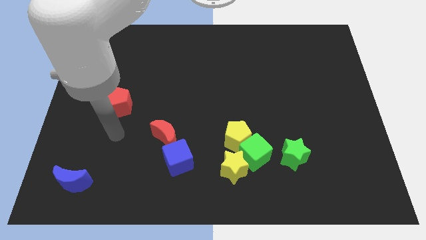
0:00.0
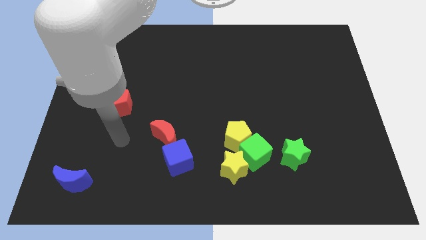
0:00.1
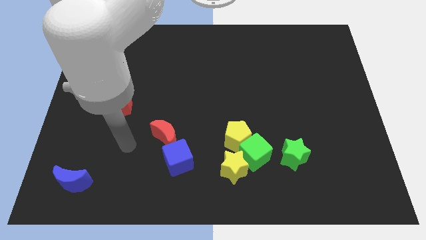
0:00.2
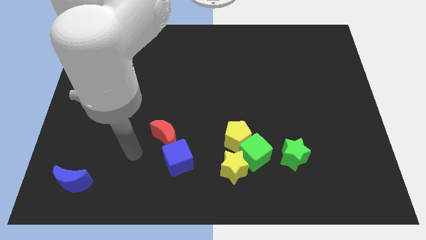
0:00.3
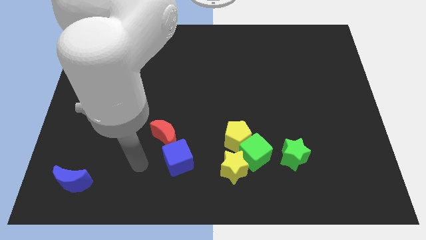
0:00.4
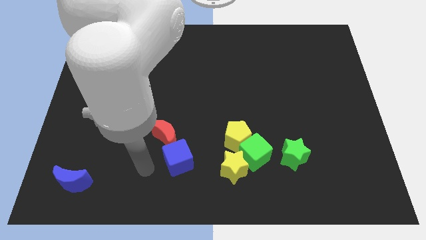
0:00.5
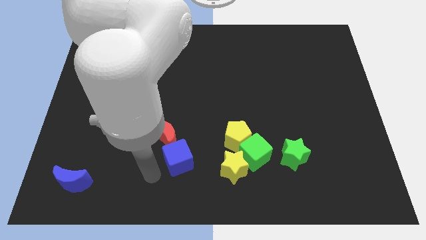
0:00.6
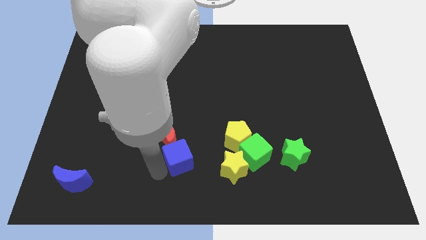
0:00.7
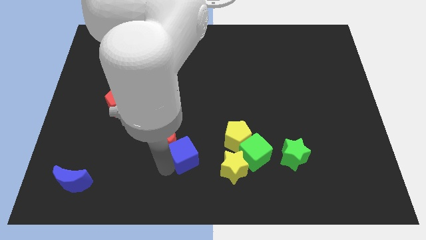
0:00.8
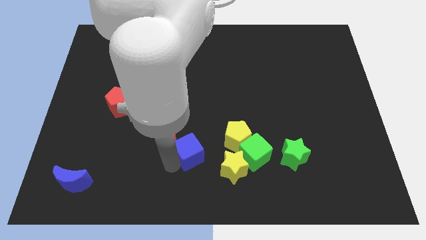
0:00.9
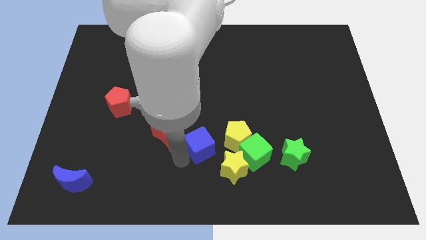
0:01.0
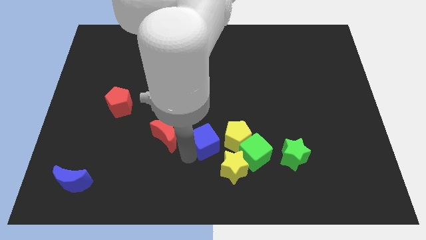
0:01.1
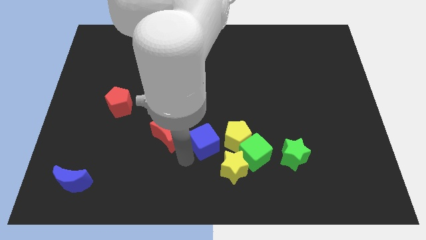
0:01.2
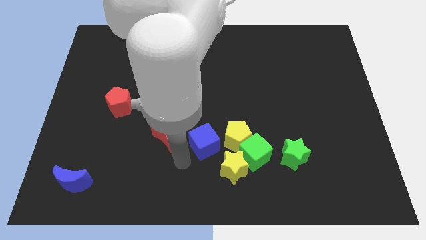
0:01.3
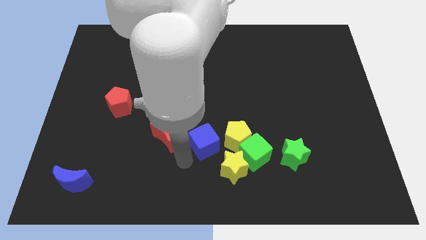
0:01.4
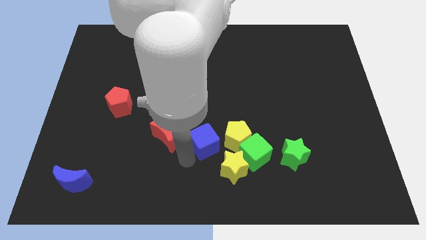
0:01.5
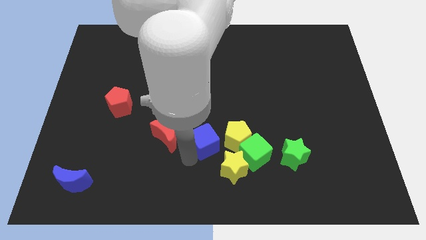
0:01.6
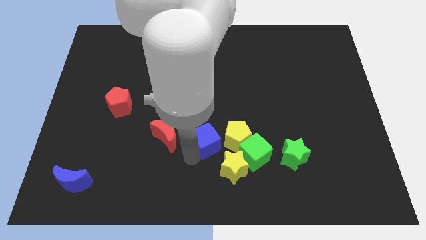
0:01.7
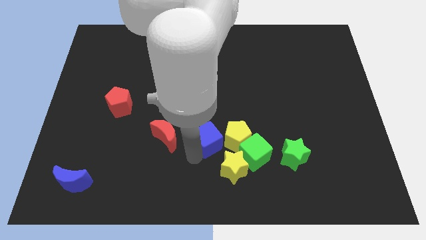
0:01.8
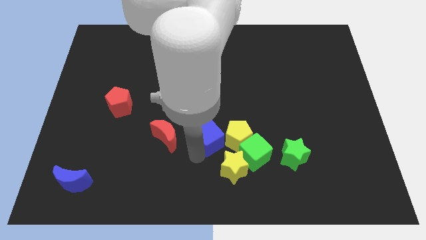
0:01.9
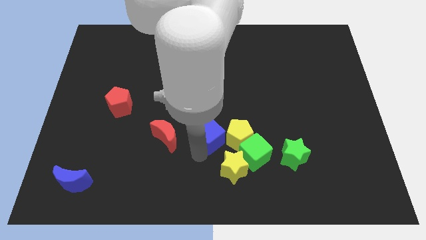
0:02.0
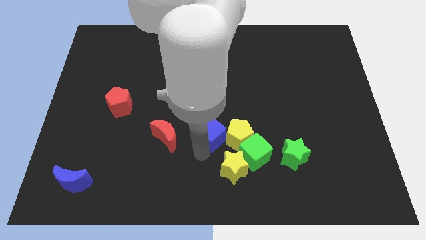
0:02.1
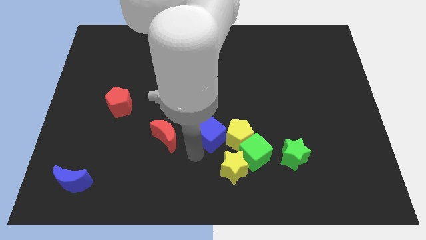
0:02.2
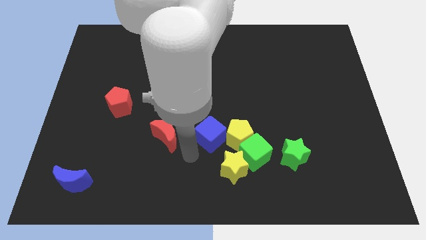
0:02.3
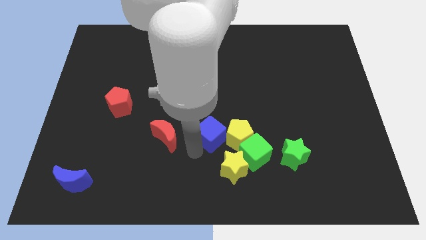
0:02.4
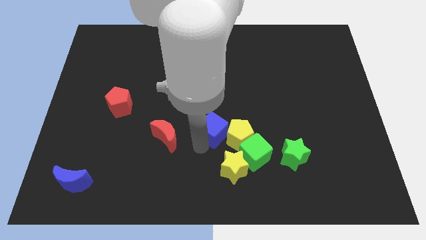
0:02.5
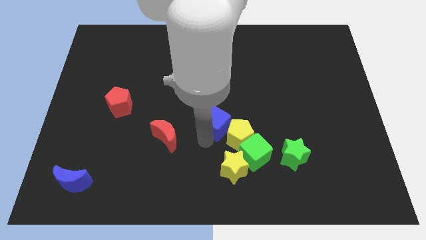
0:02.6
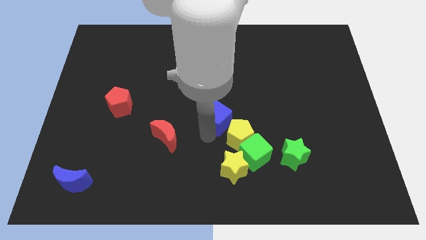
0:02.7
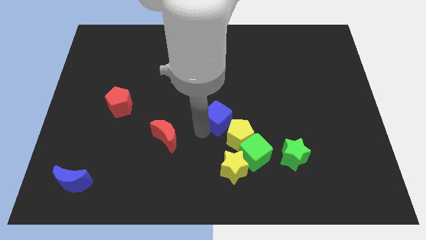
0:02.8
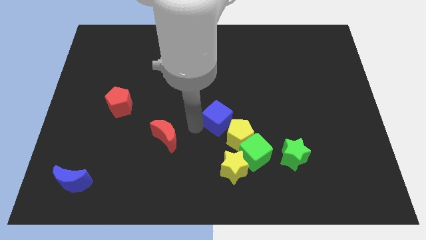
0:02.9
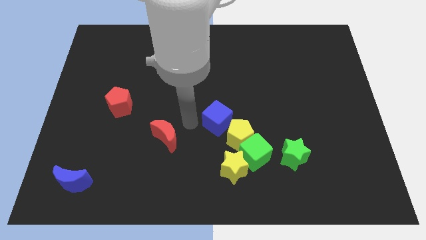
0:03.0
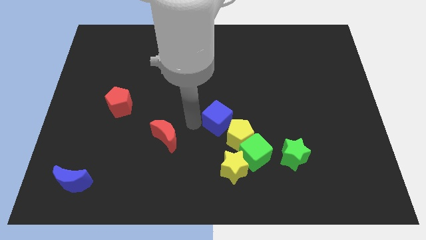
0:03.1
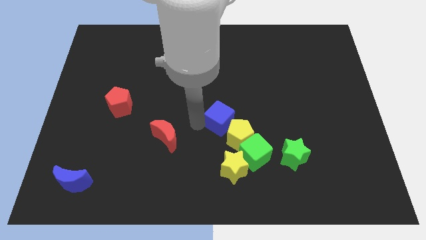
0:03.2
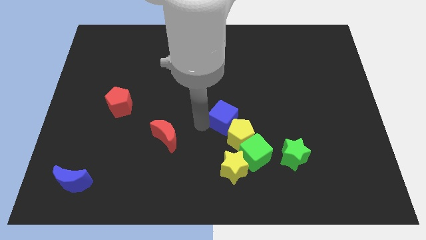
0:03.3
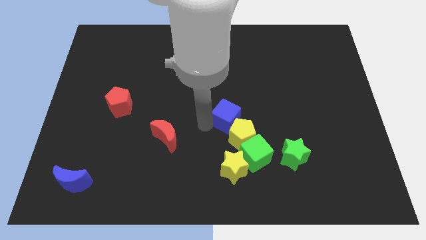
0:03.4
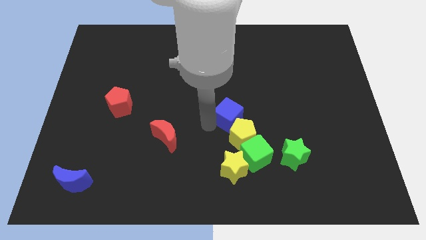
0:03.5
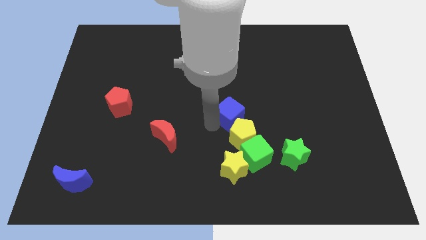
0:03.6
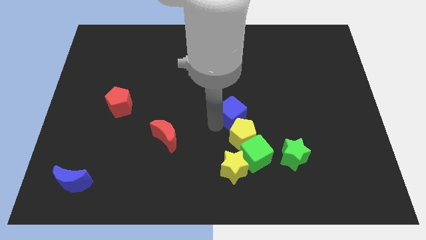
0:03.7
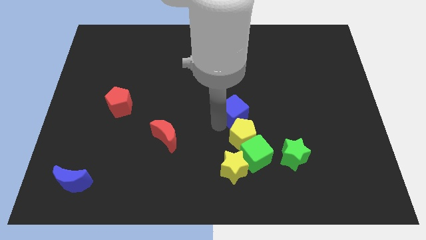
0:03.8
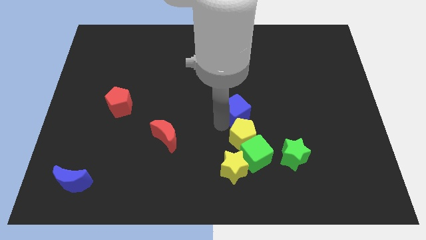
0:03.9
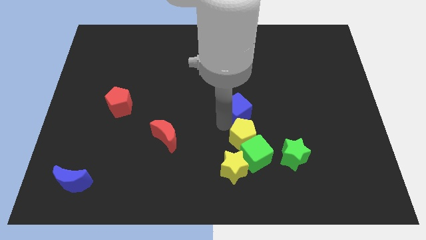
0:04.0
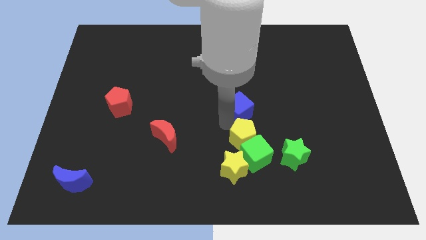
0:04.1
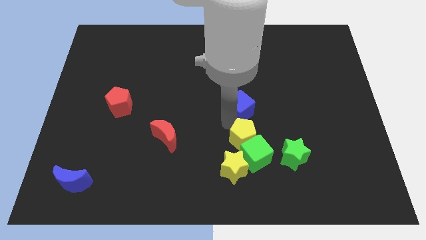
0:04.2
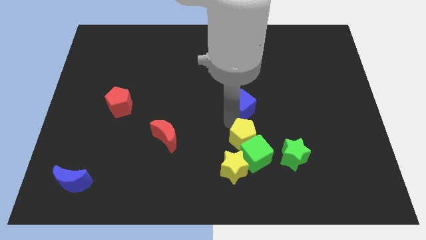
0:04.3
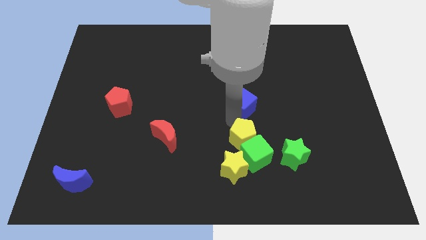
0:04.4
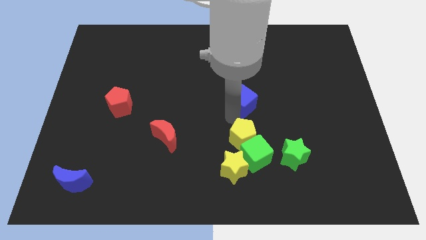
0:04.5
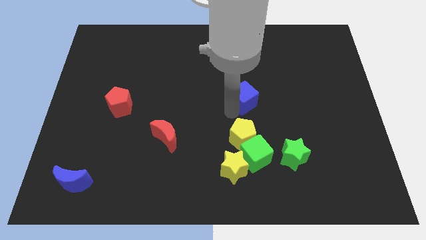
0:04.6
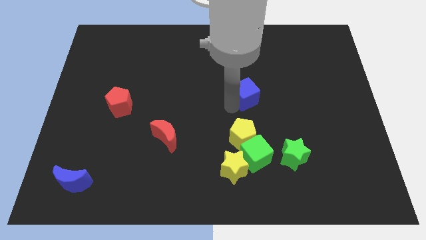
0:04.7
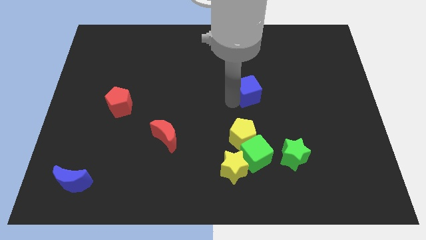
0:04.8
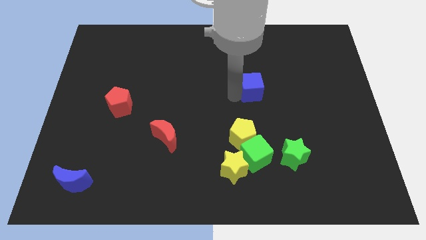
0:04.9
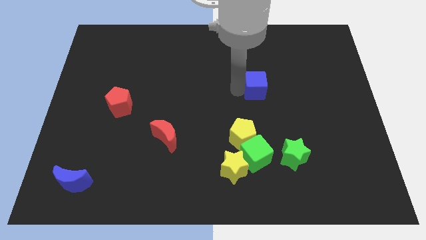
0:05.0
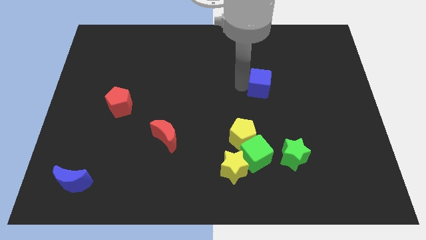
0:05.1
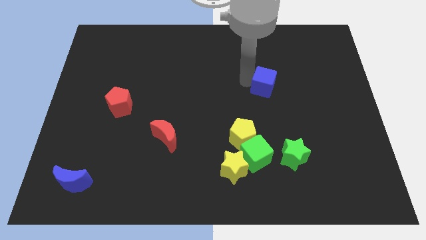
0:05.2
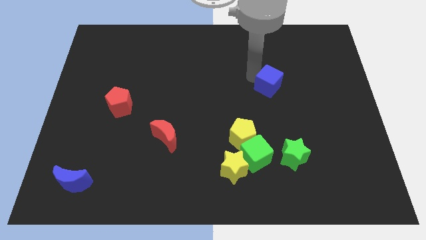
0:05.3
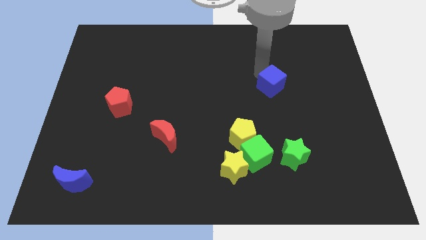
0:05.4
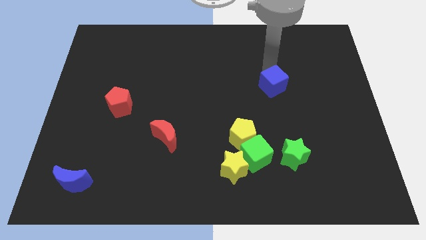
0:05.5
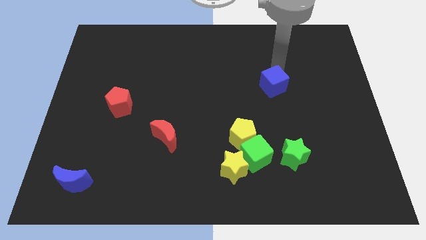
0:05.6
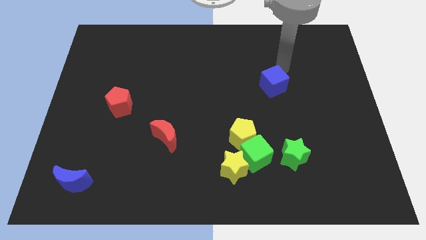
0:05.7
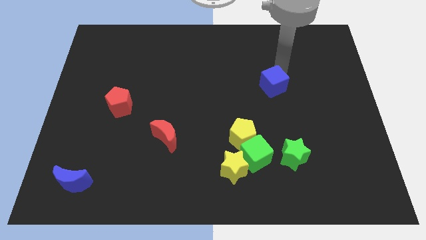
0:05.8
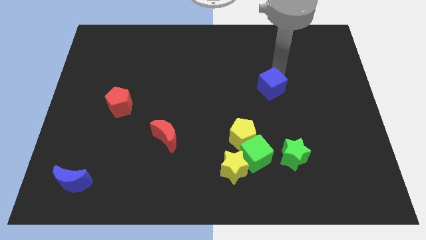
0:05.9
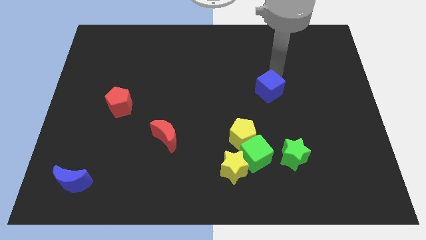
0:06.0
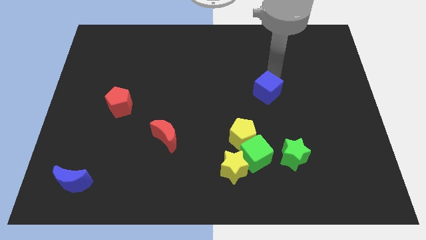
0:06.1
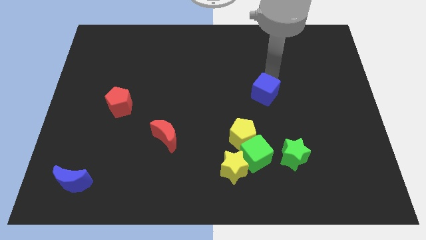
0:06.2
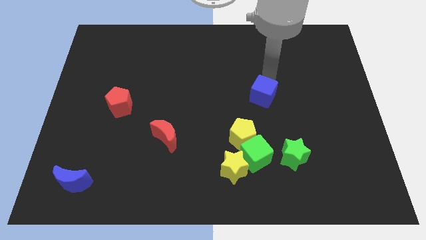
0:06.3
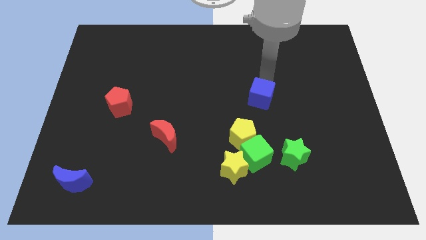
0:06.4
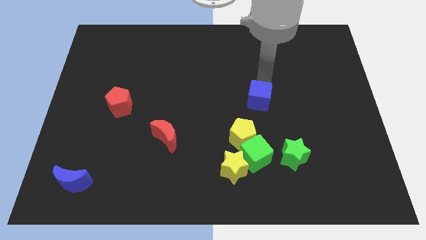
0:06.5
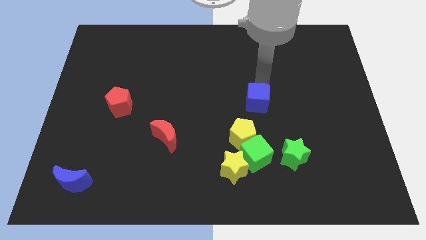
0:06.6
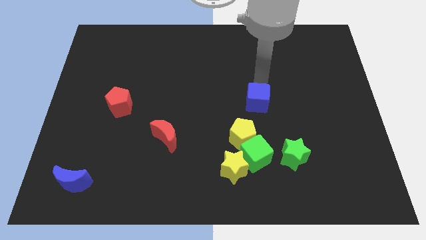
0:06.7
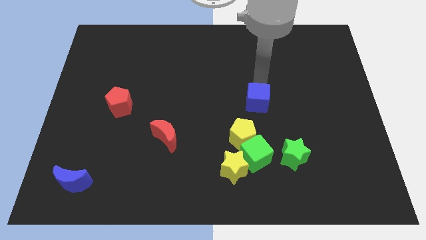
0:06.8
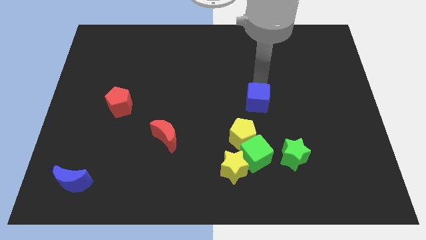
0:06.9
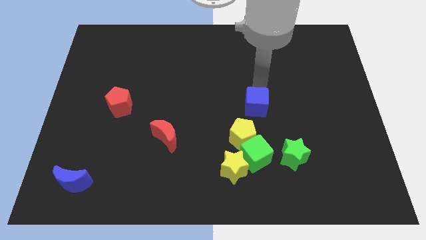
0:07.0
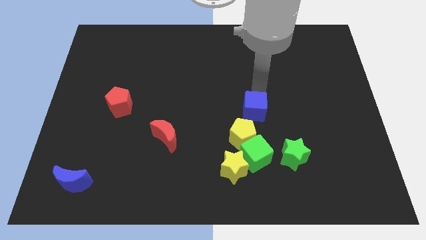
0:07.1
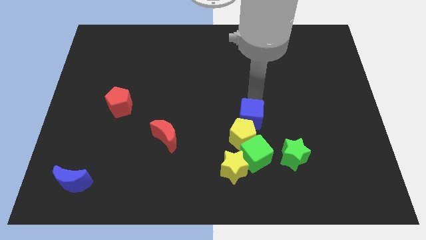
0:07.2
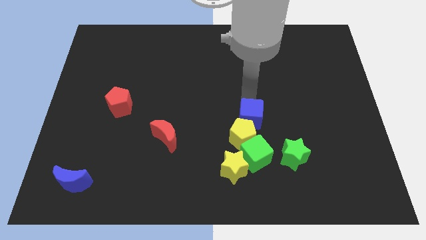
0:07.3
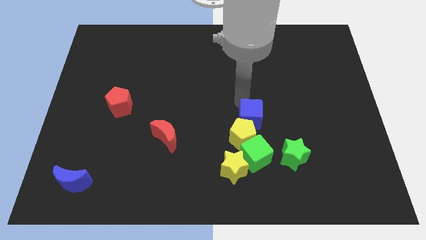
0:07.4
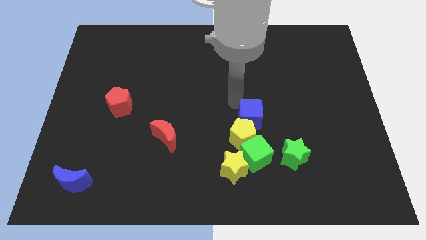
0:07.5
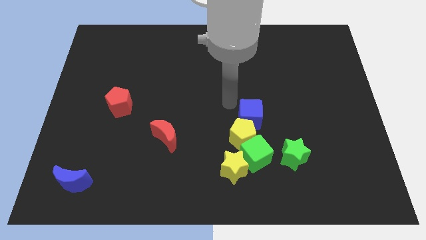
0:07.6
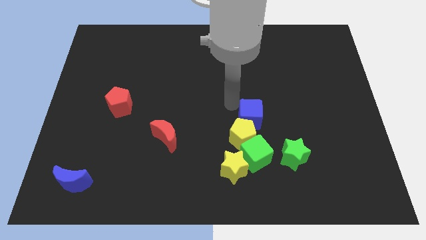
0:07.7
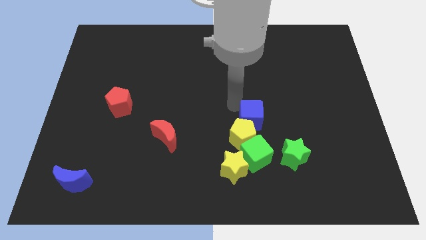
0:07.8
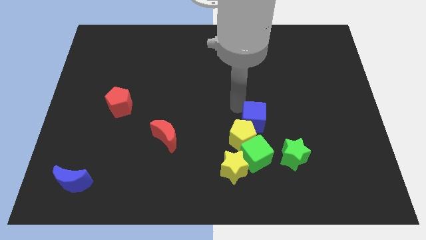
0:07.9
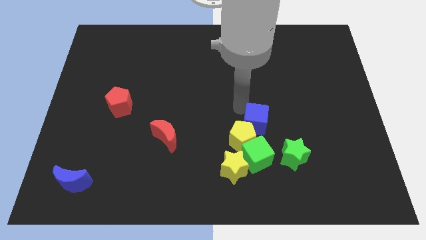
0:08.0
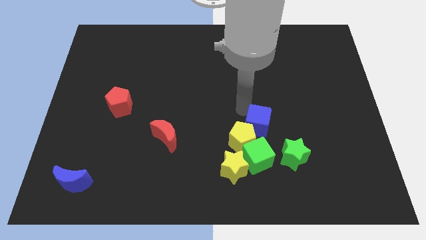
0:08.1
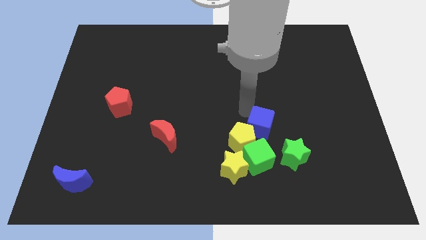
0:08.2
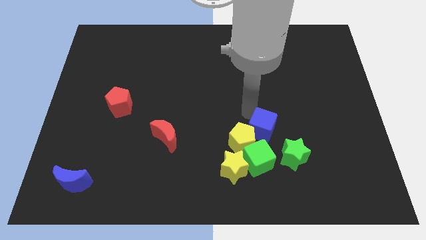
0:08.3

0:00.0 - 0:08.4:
slide the blue cube to the top right side of the green cube
